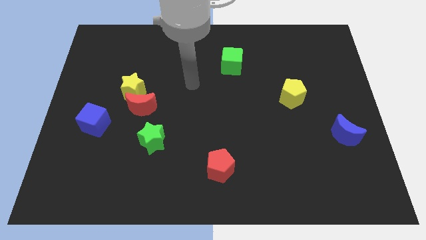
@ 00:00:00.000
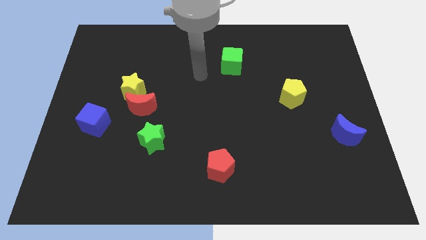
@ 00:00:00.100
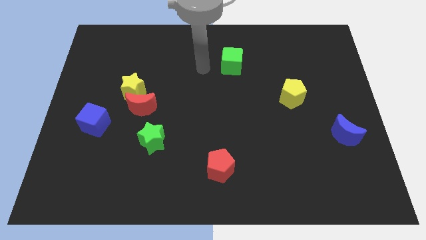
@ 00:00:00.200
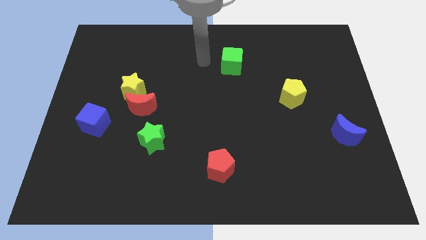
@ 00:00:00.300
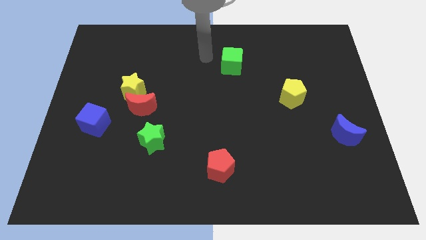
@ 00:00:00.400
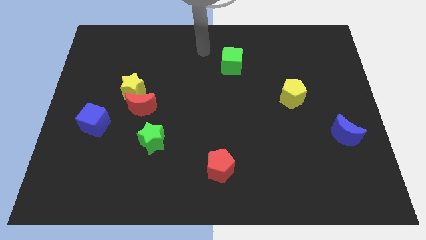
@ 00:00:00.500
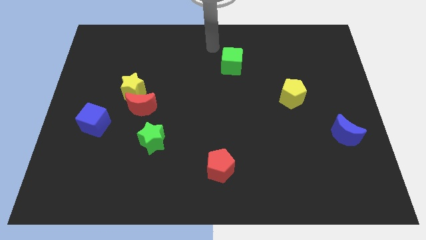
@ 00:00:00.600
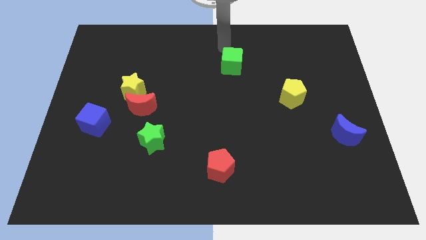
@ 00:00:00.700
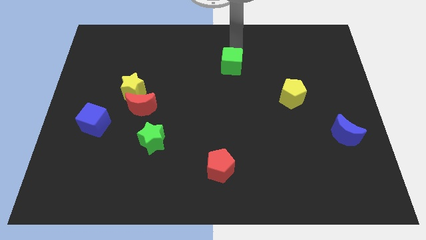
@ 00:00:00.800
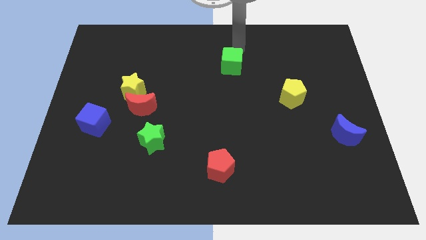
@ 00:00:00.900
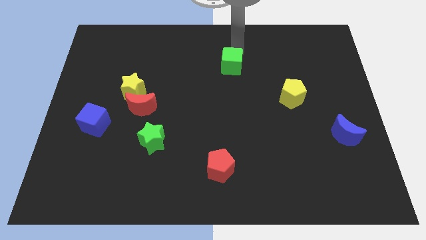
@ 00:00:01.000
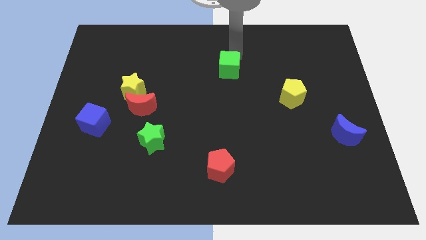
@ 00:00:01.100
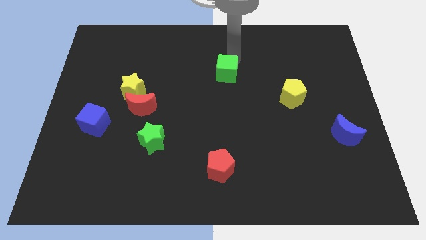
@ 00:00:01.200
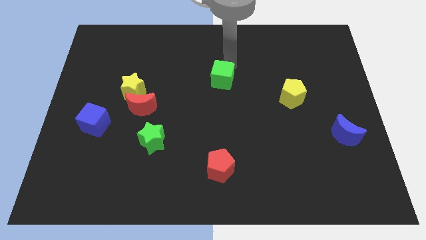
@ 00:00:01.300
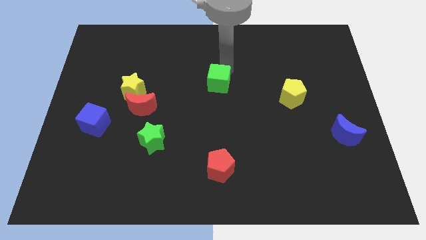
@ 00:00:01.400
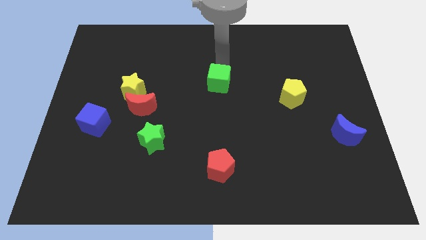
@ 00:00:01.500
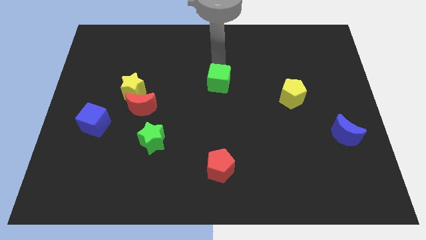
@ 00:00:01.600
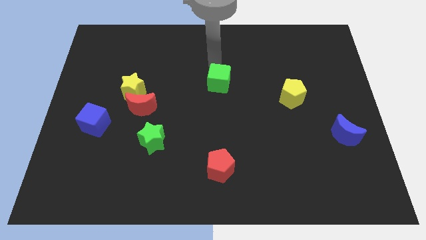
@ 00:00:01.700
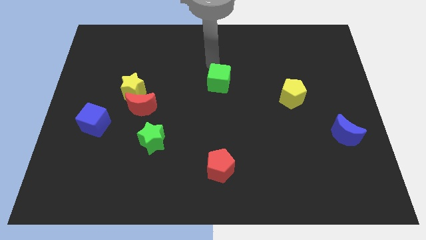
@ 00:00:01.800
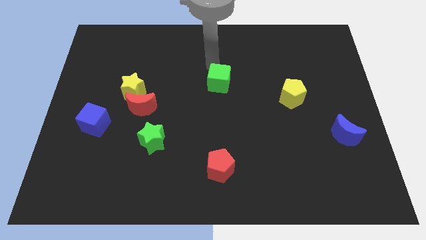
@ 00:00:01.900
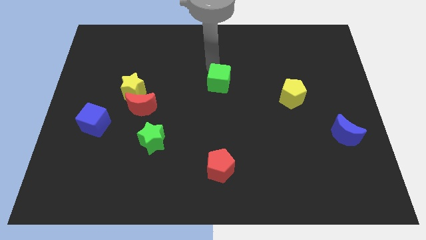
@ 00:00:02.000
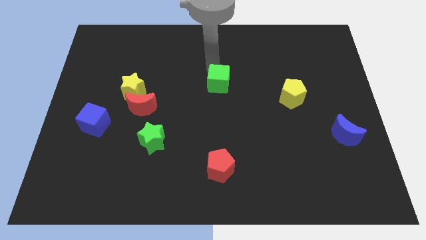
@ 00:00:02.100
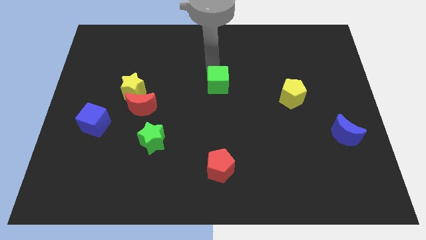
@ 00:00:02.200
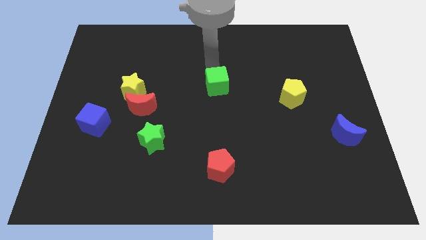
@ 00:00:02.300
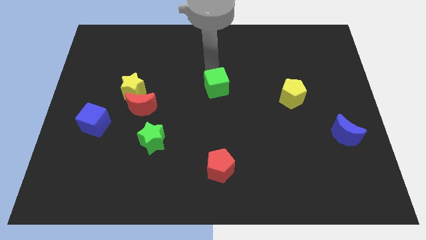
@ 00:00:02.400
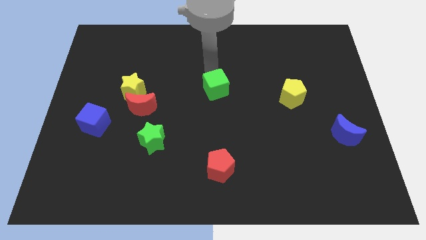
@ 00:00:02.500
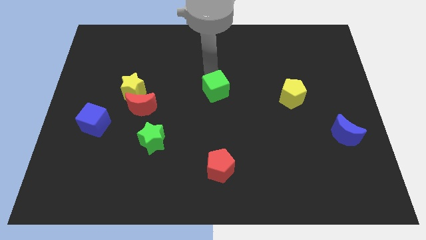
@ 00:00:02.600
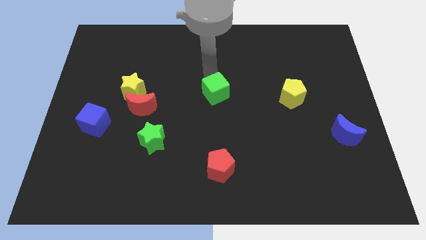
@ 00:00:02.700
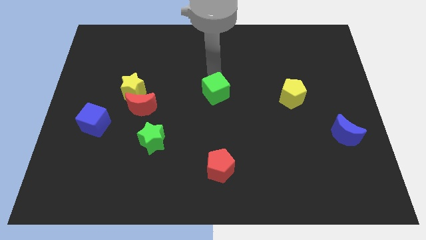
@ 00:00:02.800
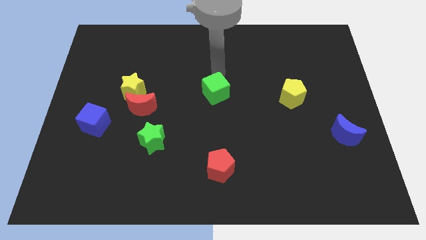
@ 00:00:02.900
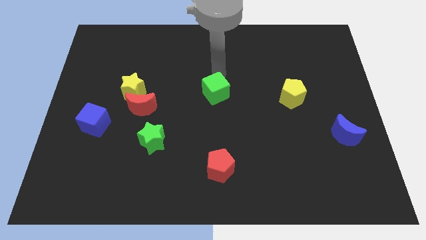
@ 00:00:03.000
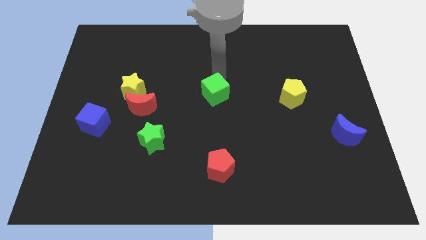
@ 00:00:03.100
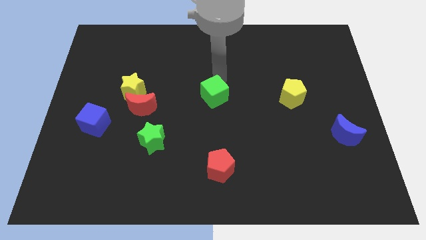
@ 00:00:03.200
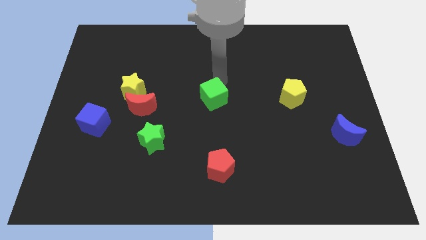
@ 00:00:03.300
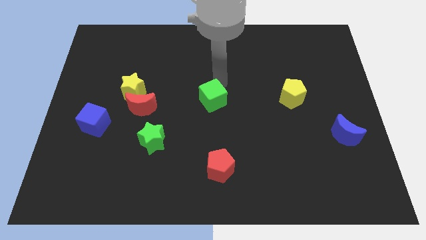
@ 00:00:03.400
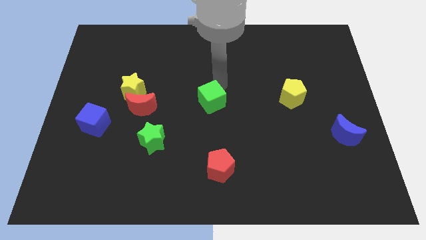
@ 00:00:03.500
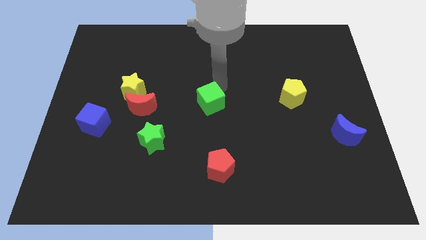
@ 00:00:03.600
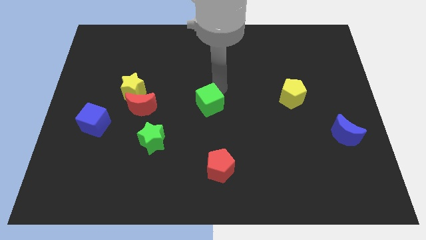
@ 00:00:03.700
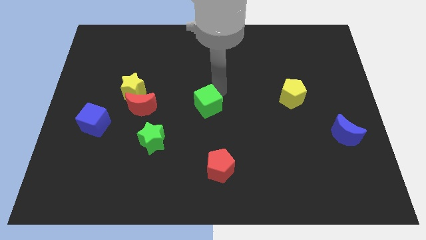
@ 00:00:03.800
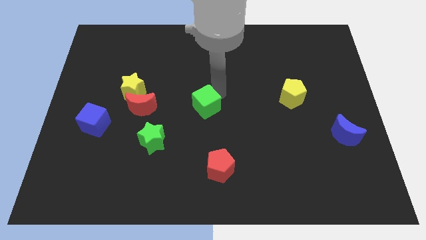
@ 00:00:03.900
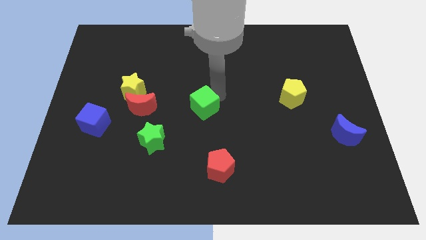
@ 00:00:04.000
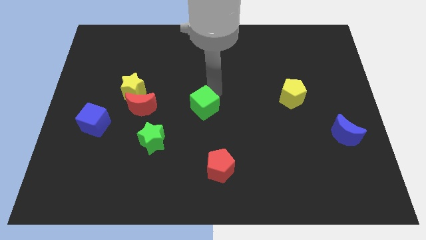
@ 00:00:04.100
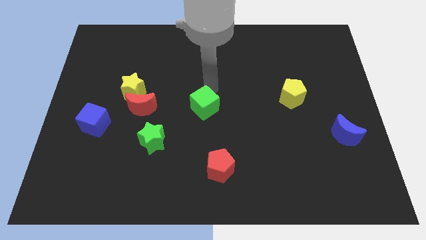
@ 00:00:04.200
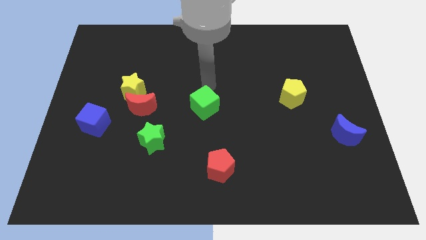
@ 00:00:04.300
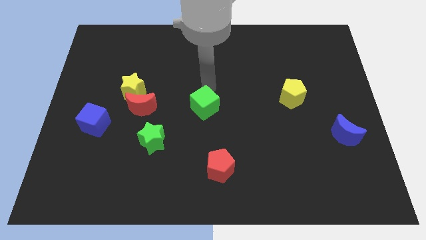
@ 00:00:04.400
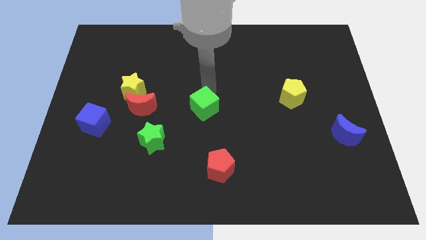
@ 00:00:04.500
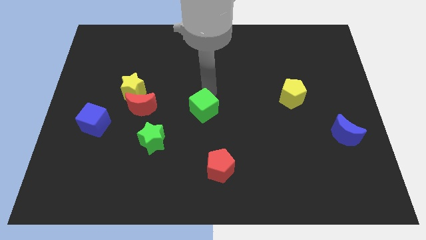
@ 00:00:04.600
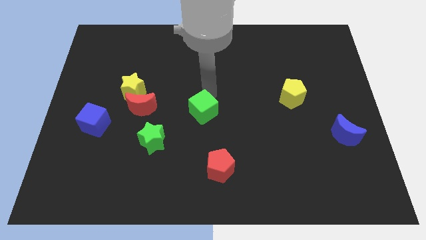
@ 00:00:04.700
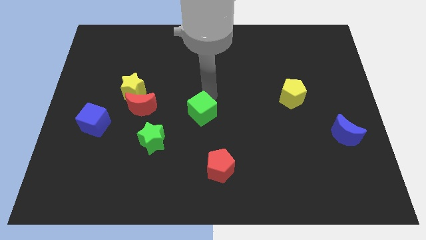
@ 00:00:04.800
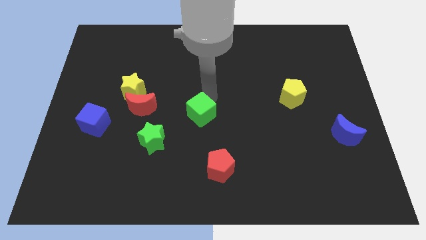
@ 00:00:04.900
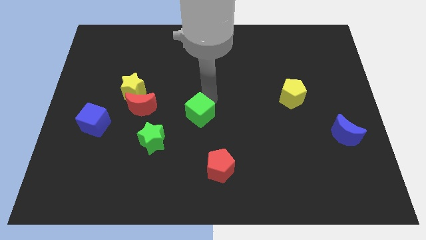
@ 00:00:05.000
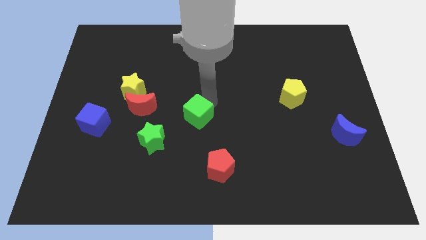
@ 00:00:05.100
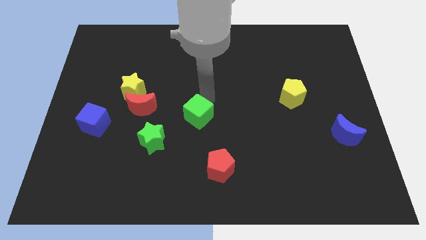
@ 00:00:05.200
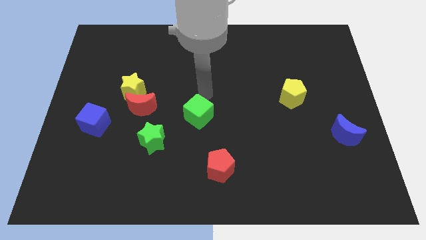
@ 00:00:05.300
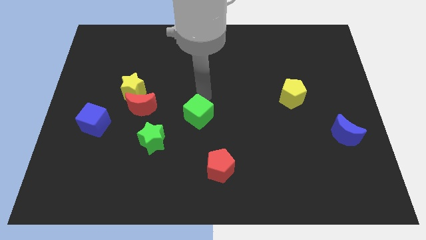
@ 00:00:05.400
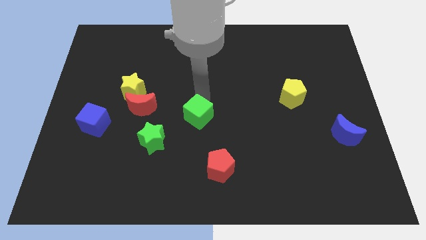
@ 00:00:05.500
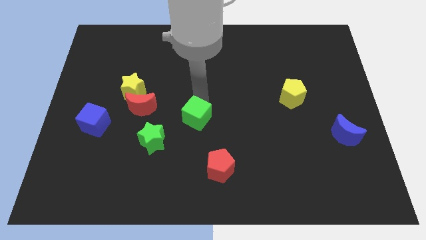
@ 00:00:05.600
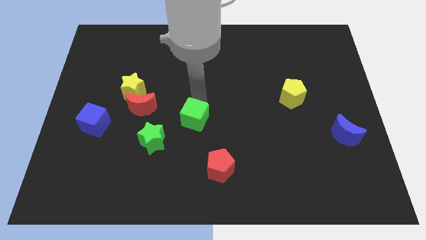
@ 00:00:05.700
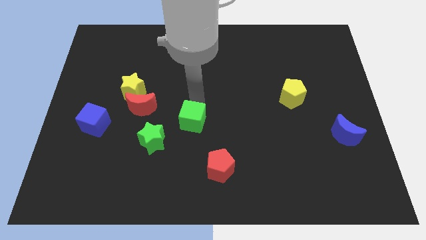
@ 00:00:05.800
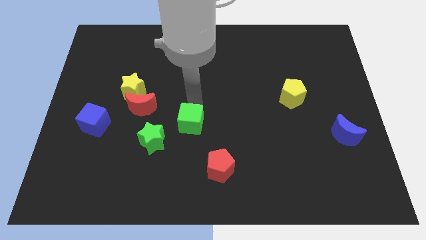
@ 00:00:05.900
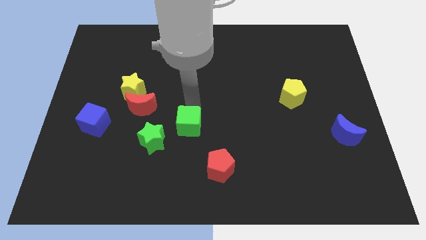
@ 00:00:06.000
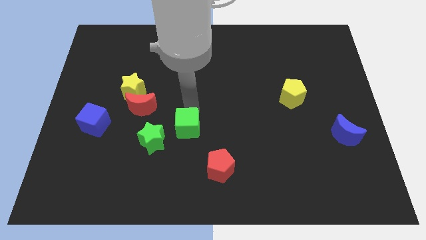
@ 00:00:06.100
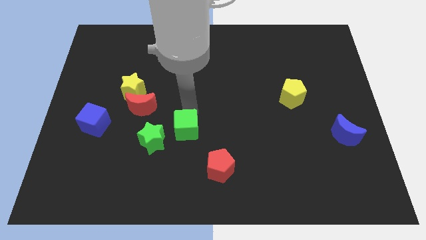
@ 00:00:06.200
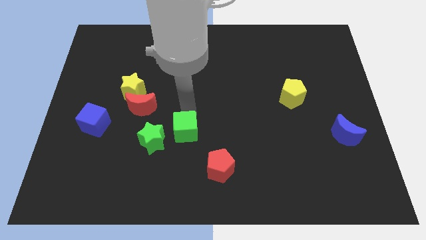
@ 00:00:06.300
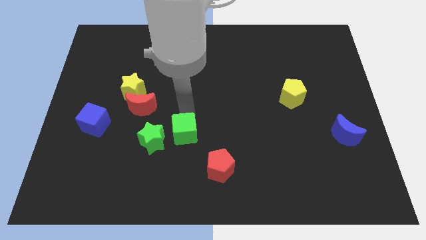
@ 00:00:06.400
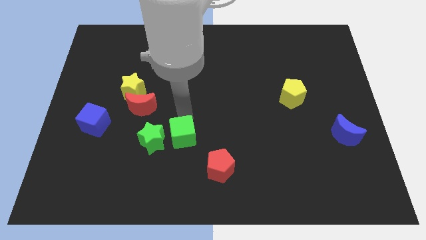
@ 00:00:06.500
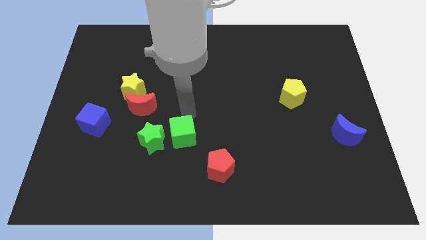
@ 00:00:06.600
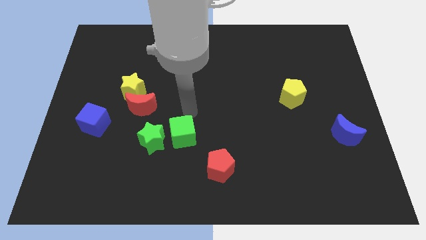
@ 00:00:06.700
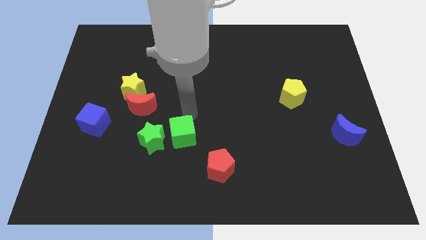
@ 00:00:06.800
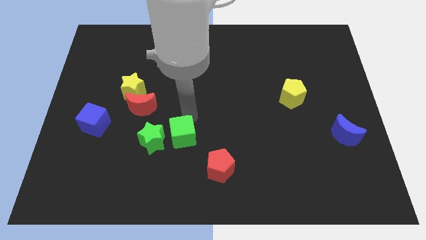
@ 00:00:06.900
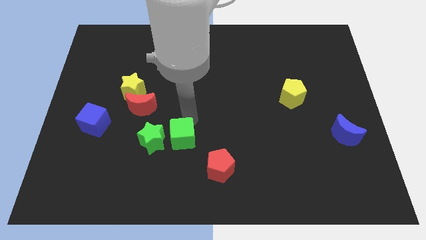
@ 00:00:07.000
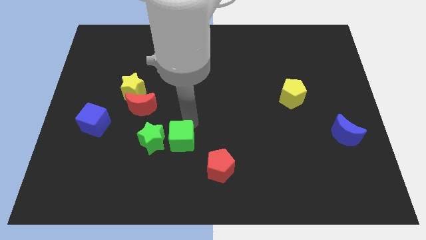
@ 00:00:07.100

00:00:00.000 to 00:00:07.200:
put the green cube diagonally down and to the right of the green star

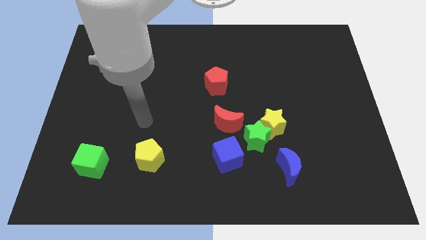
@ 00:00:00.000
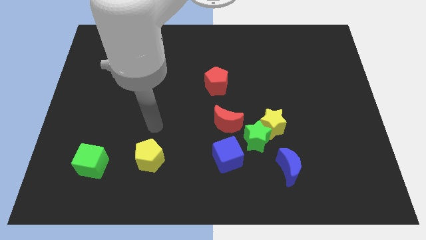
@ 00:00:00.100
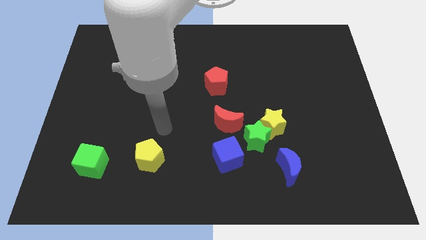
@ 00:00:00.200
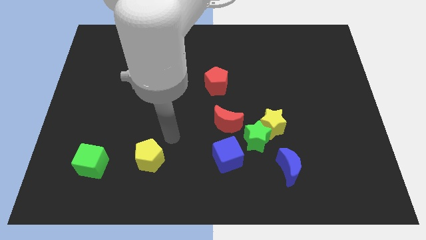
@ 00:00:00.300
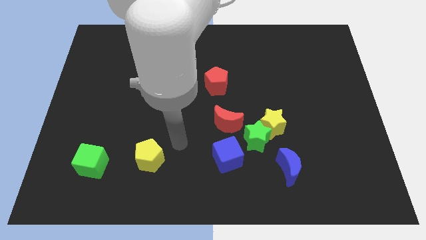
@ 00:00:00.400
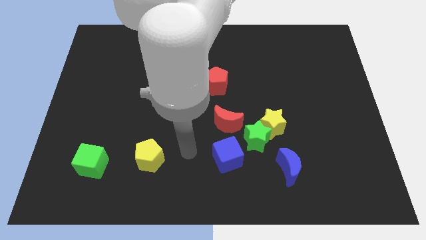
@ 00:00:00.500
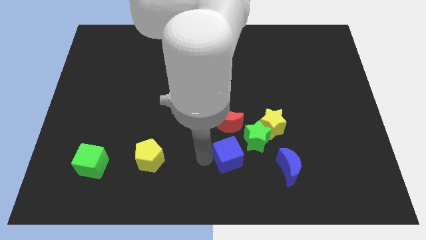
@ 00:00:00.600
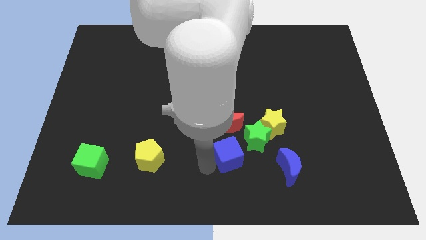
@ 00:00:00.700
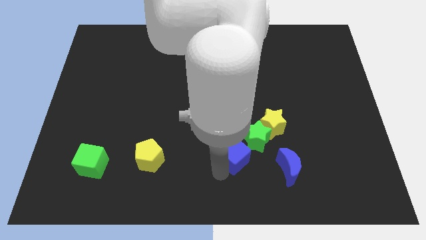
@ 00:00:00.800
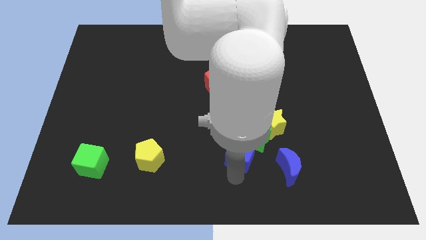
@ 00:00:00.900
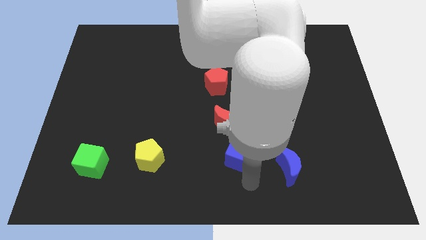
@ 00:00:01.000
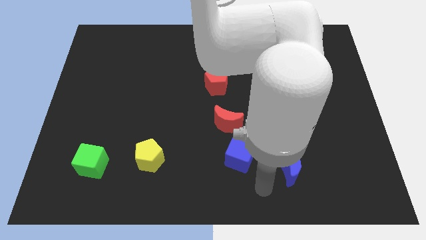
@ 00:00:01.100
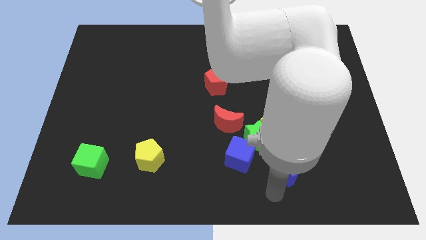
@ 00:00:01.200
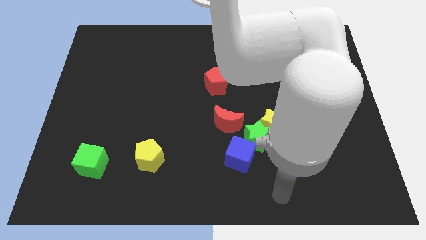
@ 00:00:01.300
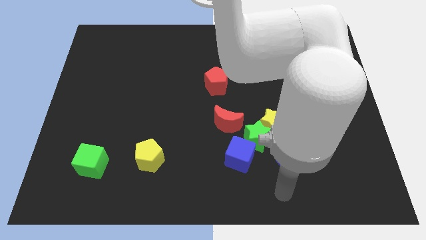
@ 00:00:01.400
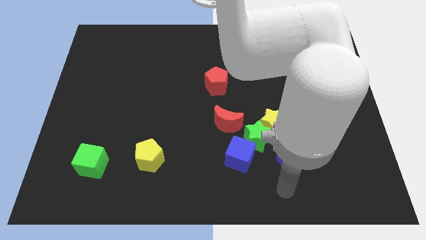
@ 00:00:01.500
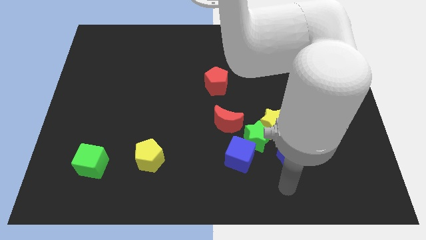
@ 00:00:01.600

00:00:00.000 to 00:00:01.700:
move the blue moon to the bottom right side of the yellow star
